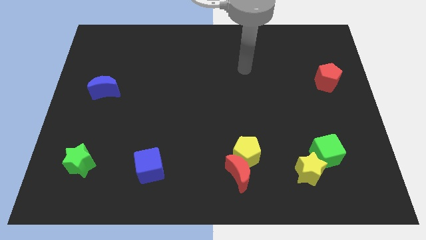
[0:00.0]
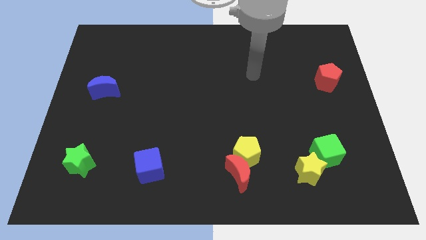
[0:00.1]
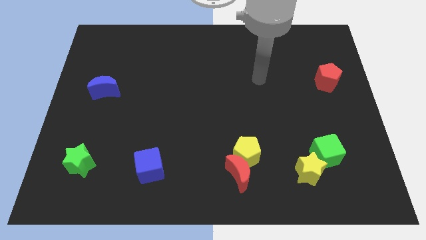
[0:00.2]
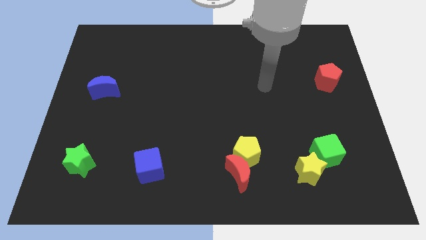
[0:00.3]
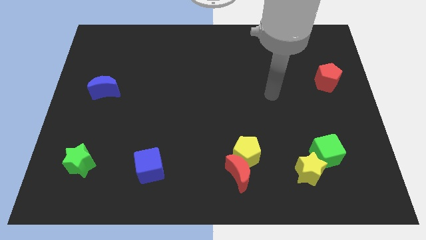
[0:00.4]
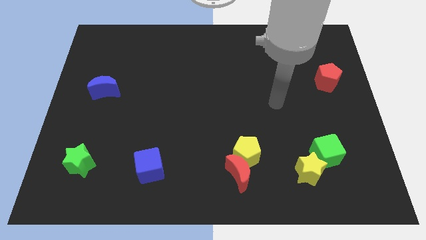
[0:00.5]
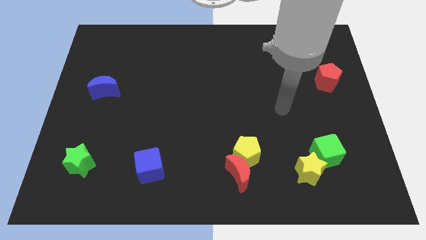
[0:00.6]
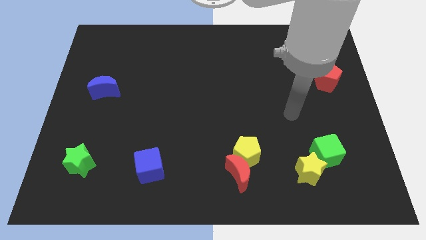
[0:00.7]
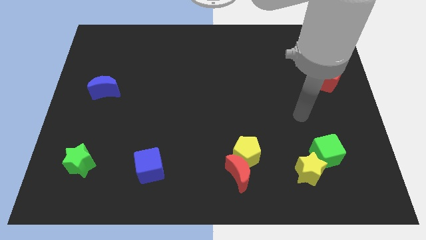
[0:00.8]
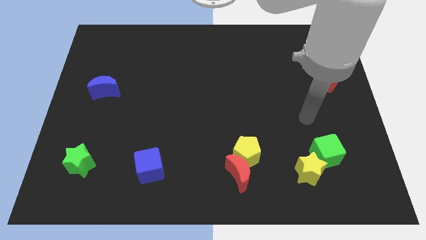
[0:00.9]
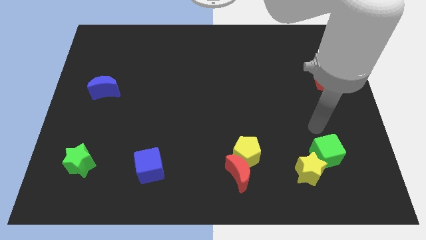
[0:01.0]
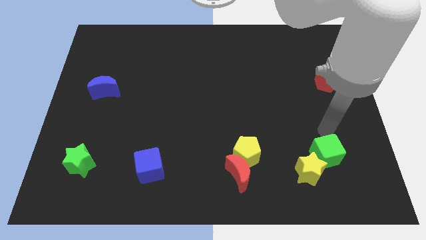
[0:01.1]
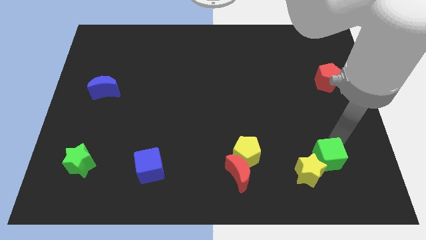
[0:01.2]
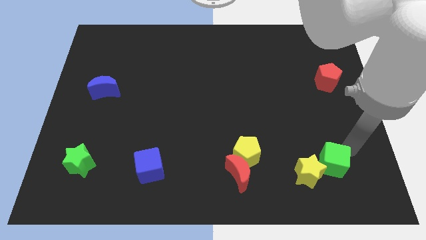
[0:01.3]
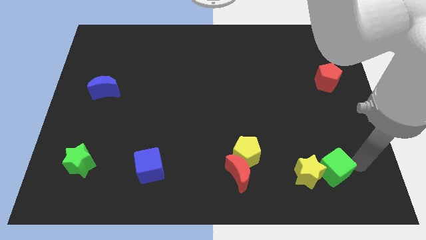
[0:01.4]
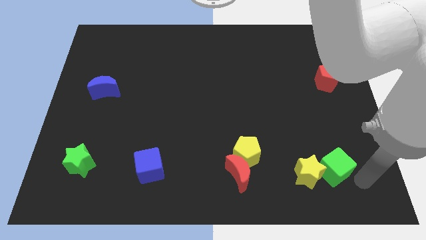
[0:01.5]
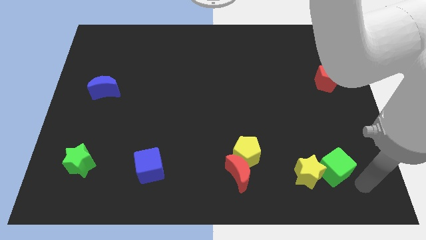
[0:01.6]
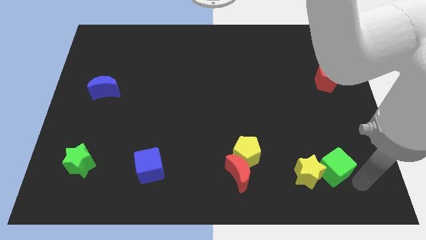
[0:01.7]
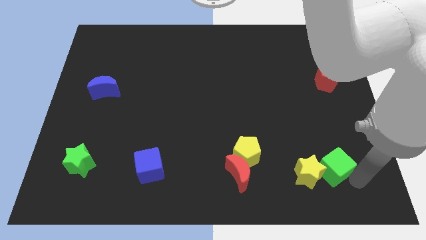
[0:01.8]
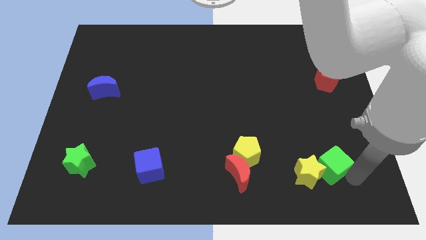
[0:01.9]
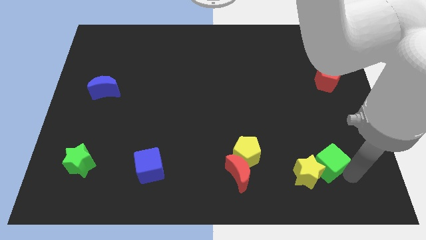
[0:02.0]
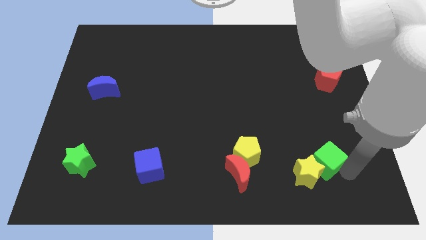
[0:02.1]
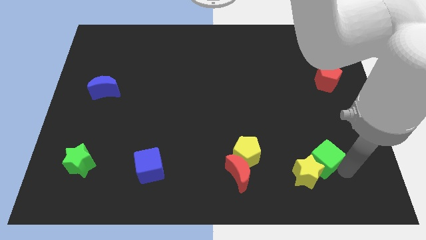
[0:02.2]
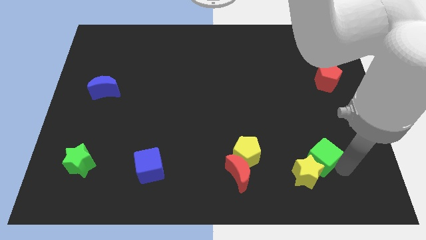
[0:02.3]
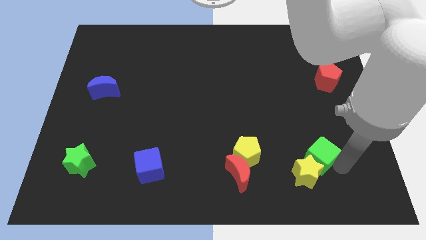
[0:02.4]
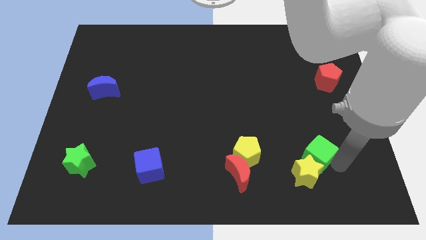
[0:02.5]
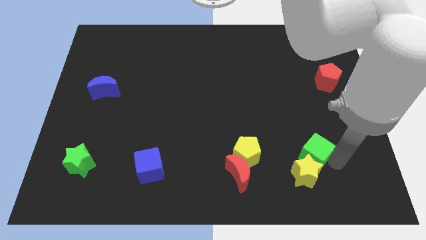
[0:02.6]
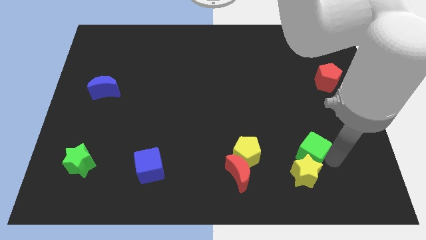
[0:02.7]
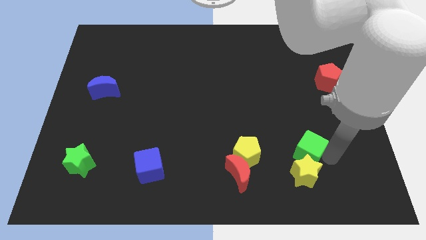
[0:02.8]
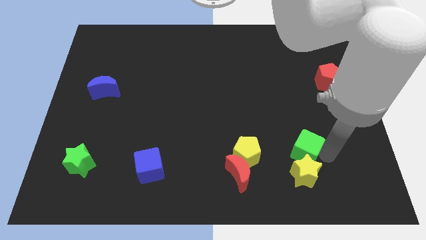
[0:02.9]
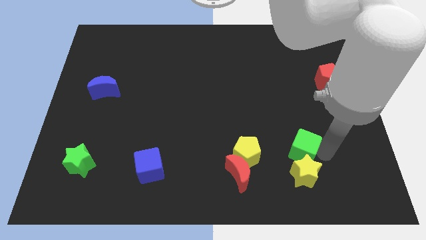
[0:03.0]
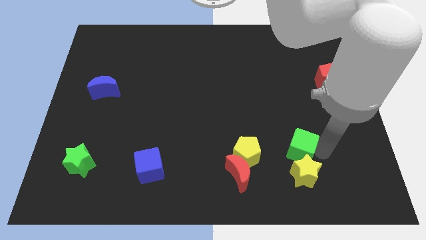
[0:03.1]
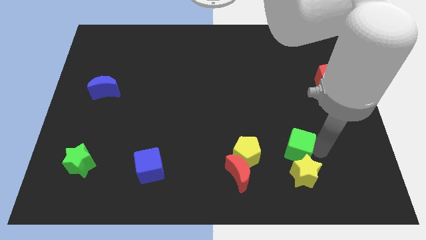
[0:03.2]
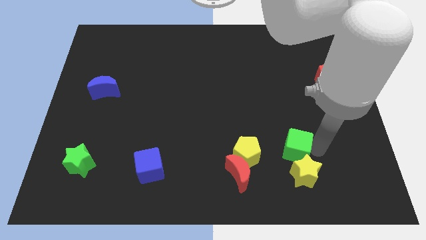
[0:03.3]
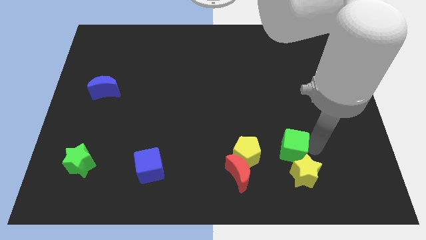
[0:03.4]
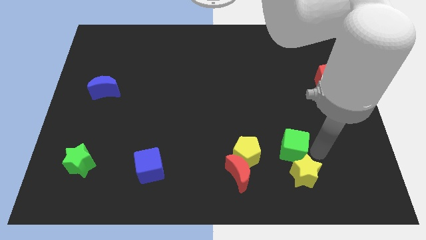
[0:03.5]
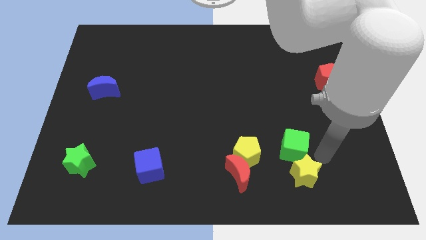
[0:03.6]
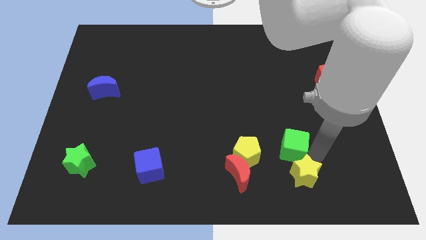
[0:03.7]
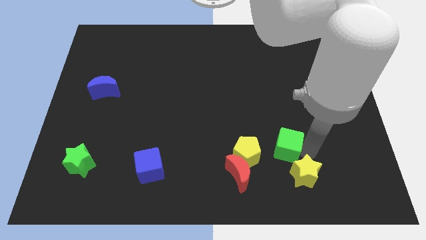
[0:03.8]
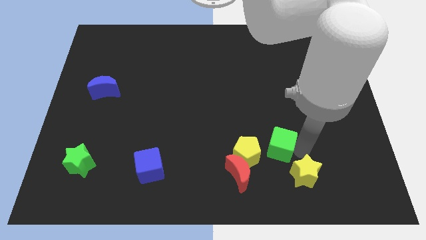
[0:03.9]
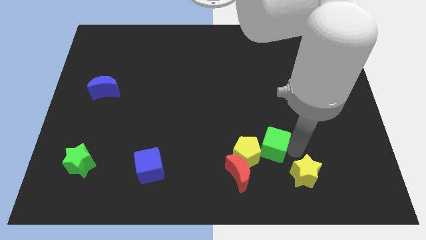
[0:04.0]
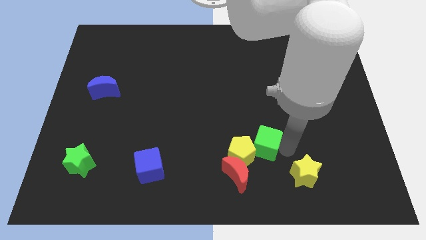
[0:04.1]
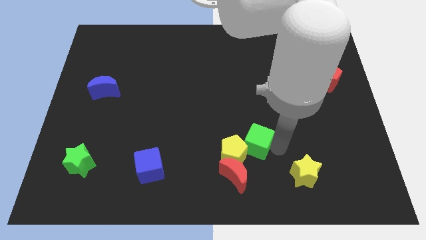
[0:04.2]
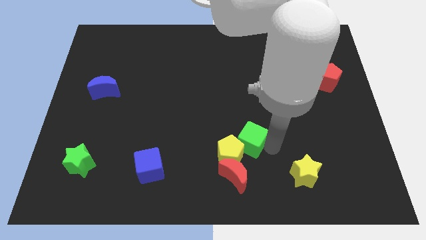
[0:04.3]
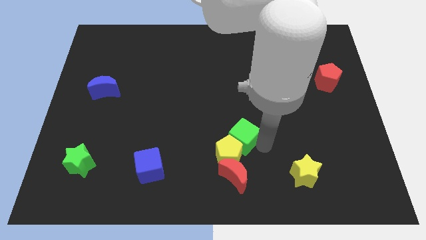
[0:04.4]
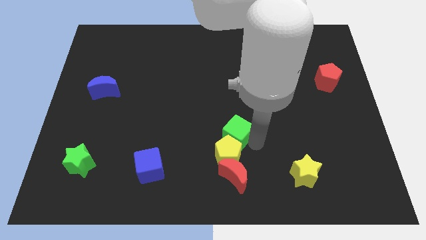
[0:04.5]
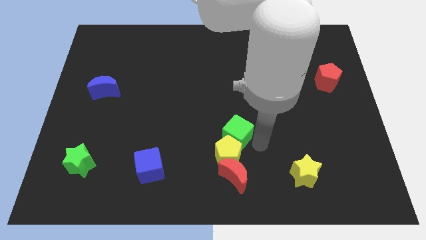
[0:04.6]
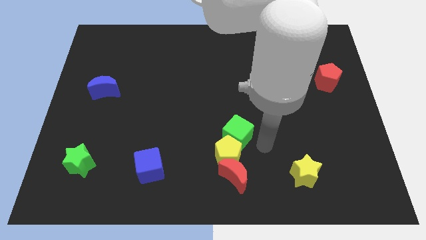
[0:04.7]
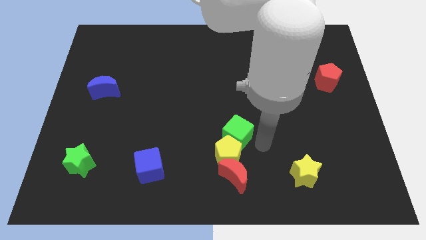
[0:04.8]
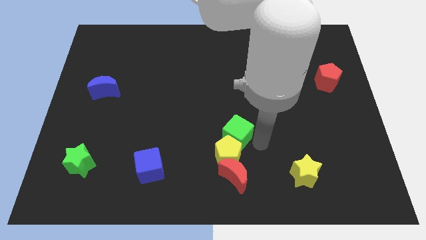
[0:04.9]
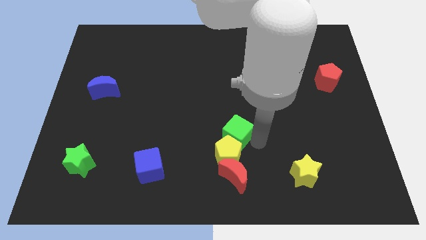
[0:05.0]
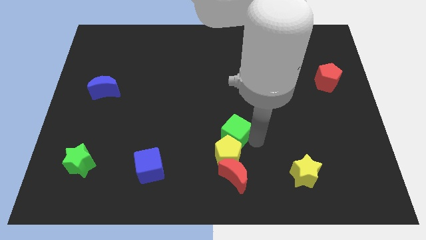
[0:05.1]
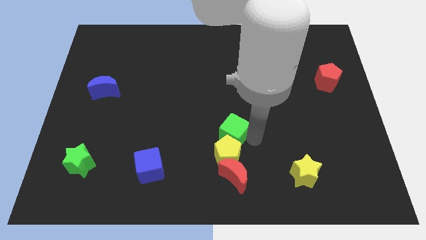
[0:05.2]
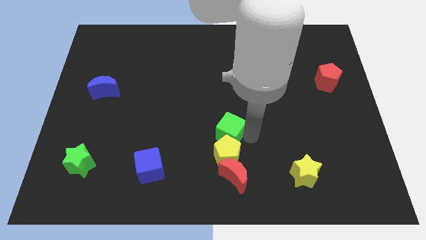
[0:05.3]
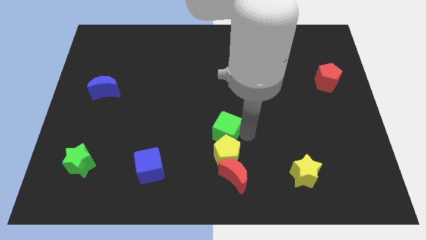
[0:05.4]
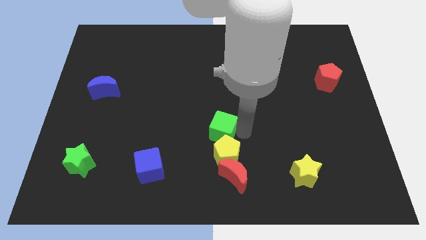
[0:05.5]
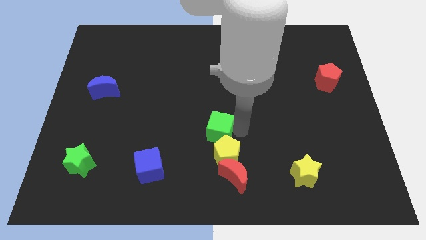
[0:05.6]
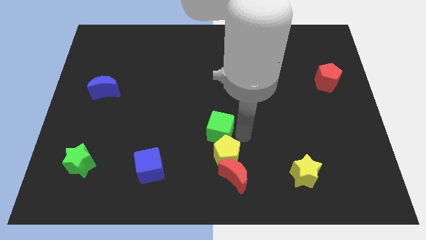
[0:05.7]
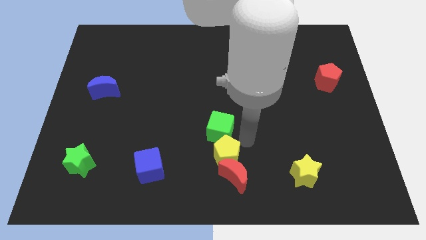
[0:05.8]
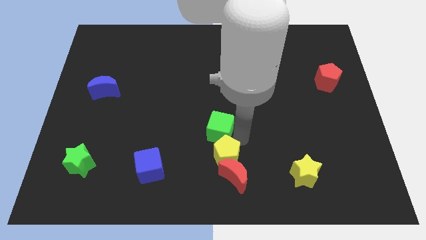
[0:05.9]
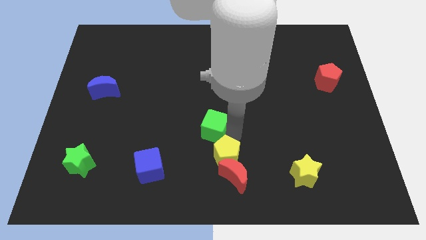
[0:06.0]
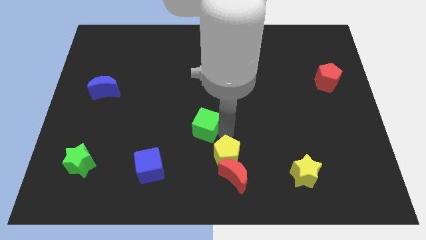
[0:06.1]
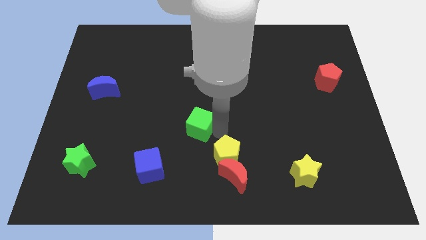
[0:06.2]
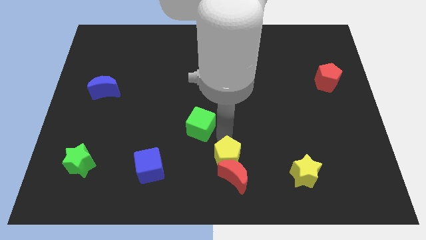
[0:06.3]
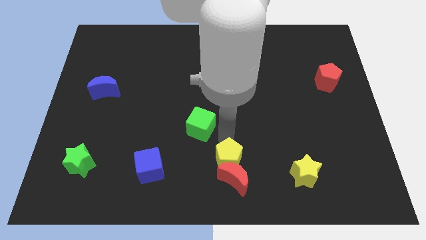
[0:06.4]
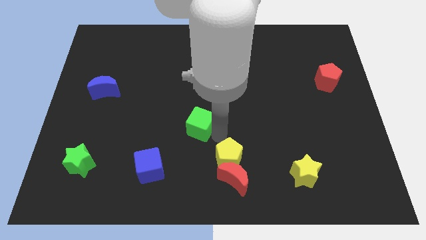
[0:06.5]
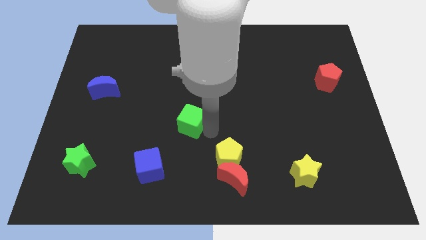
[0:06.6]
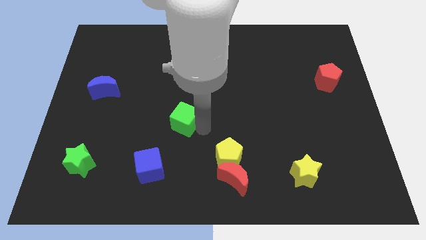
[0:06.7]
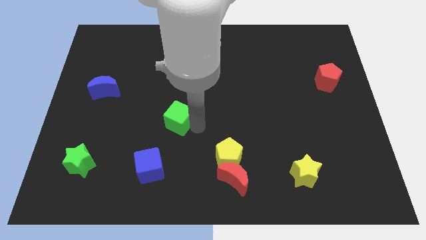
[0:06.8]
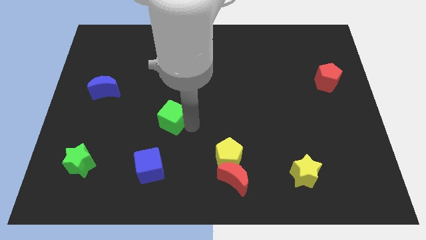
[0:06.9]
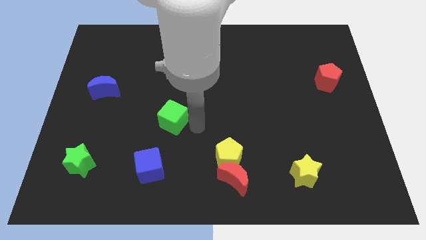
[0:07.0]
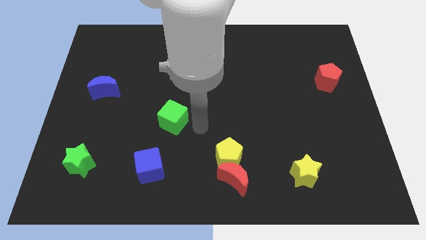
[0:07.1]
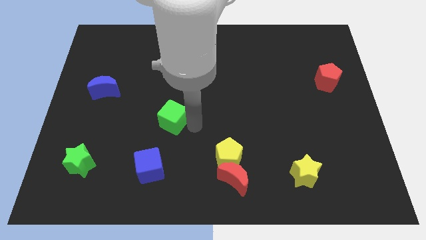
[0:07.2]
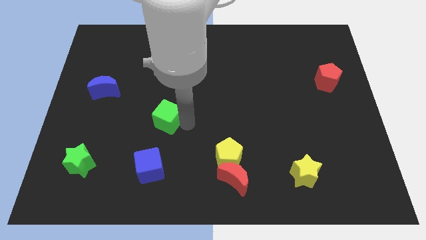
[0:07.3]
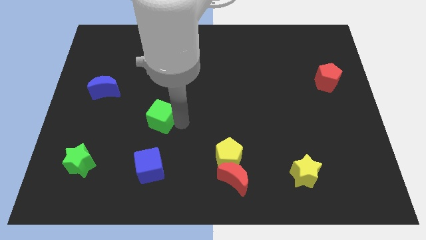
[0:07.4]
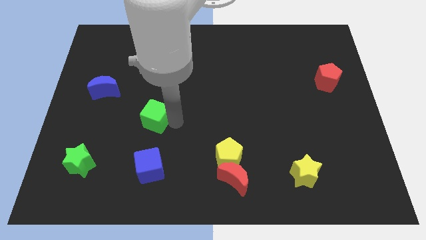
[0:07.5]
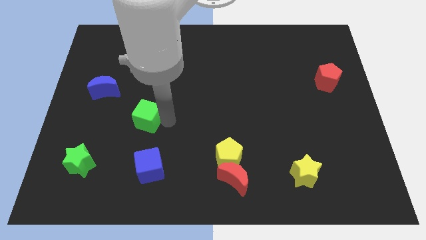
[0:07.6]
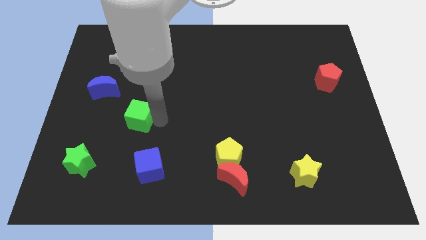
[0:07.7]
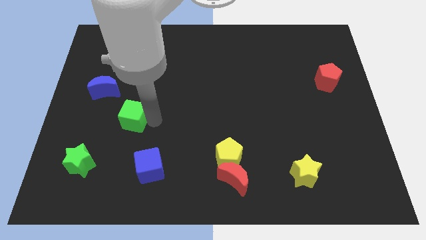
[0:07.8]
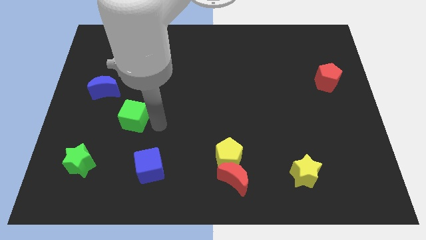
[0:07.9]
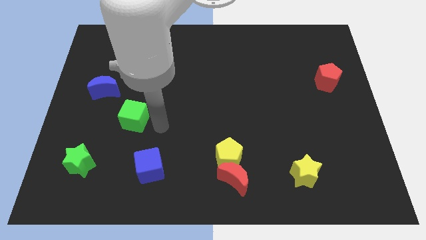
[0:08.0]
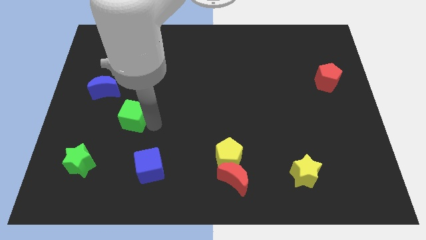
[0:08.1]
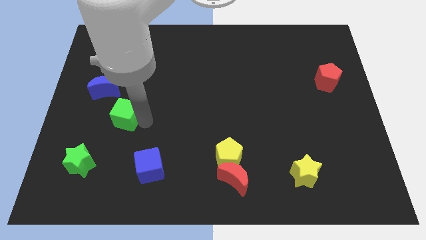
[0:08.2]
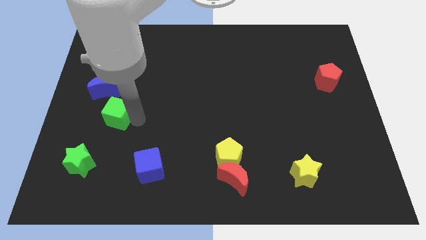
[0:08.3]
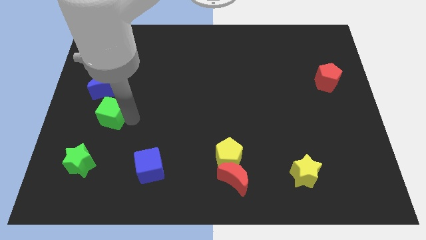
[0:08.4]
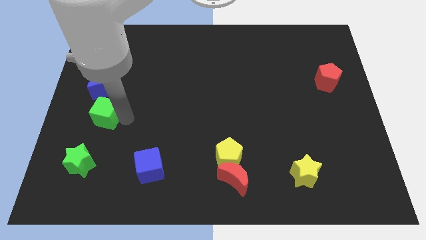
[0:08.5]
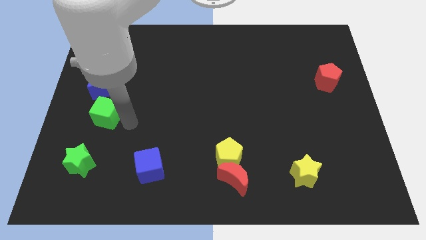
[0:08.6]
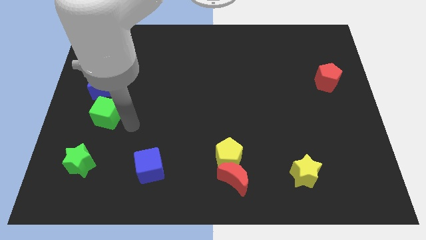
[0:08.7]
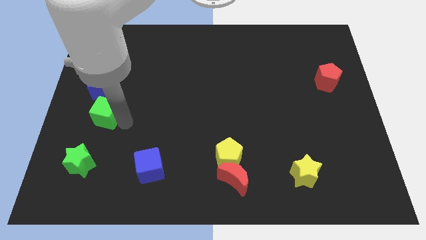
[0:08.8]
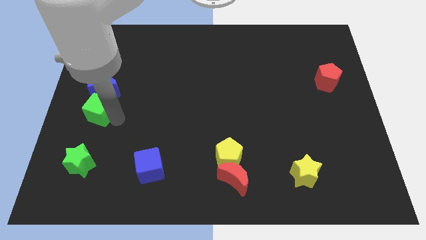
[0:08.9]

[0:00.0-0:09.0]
put the green cube to the center left
